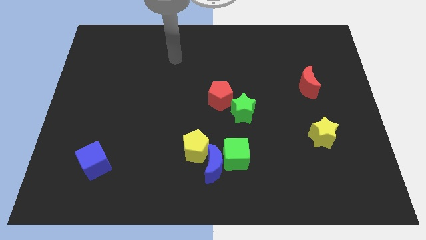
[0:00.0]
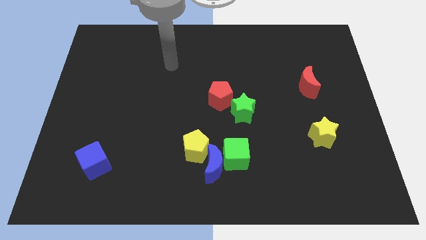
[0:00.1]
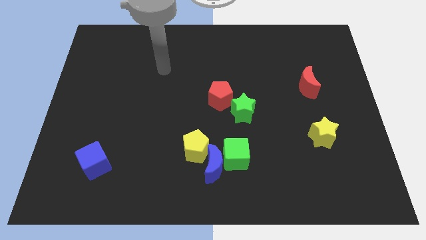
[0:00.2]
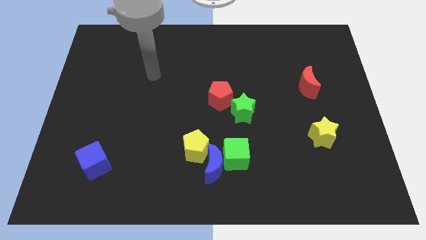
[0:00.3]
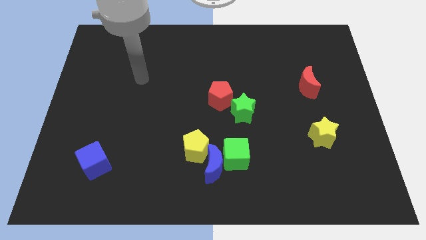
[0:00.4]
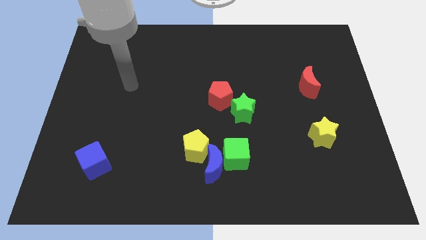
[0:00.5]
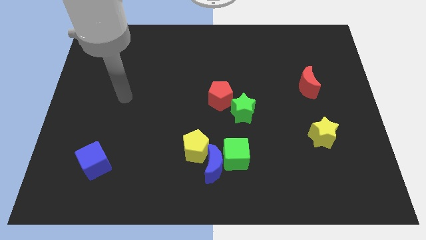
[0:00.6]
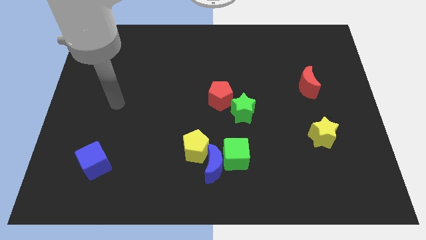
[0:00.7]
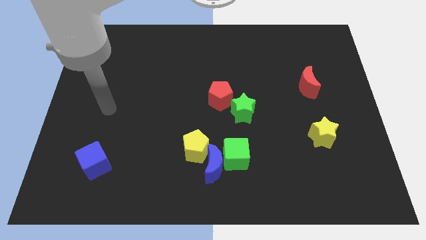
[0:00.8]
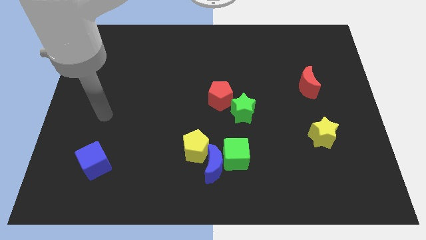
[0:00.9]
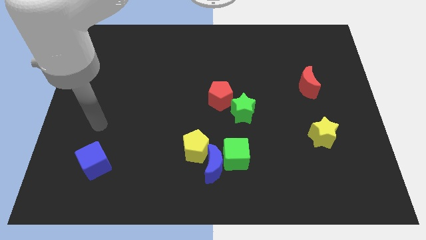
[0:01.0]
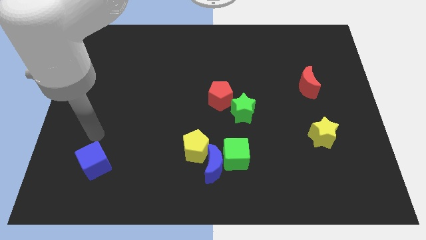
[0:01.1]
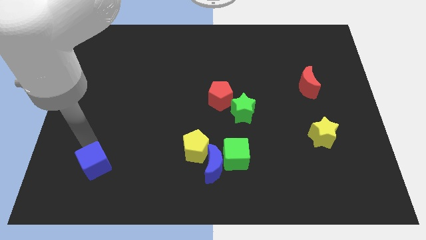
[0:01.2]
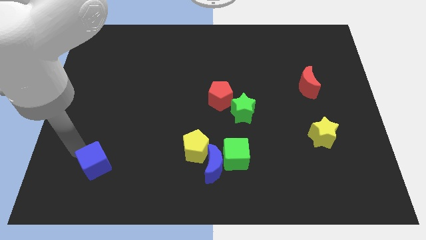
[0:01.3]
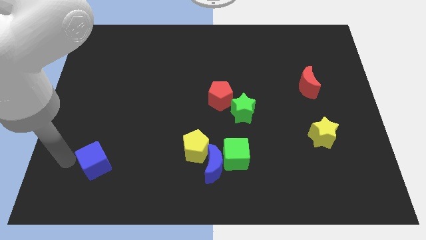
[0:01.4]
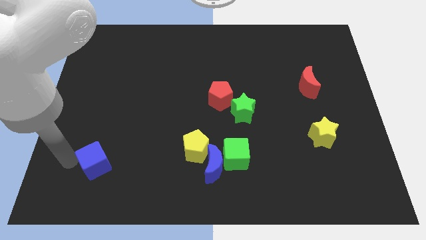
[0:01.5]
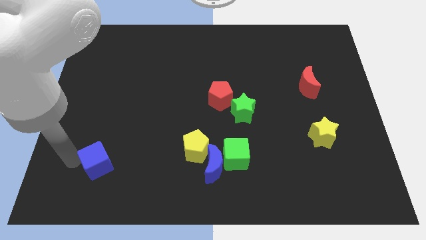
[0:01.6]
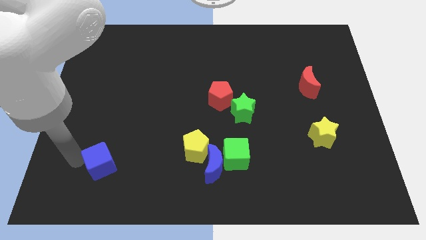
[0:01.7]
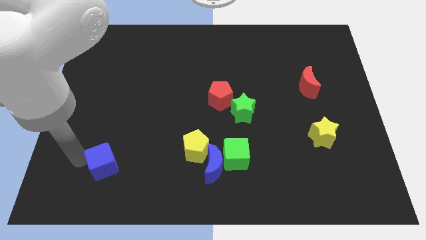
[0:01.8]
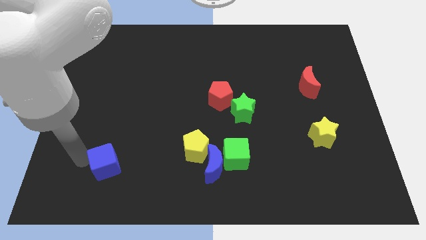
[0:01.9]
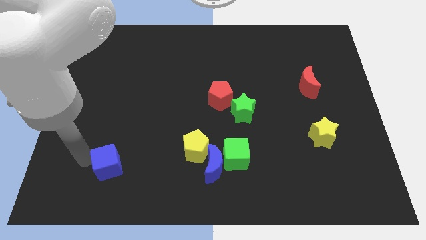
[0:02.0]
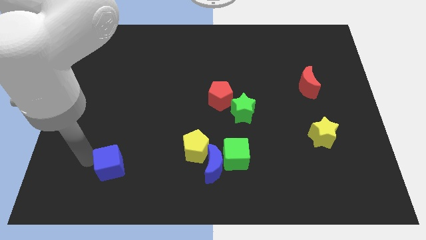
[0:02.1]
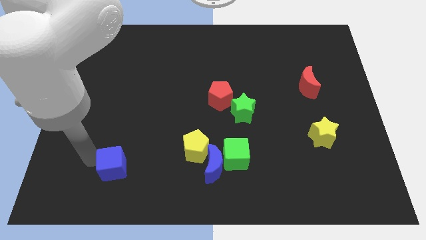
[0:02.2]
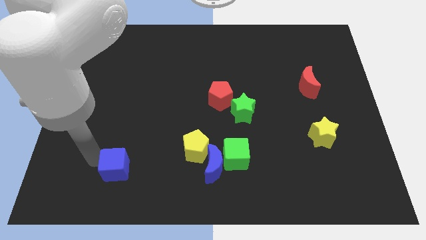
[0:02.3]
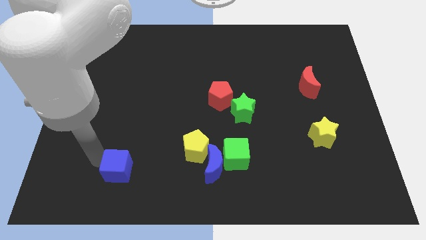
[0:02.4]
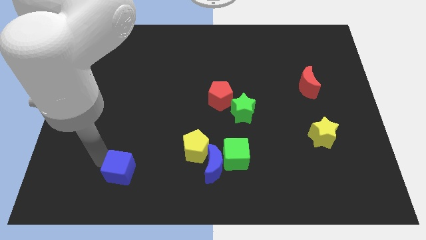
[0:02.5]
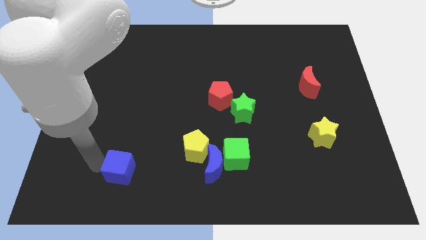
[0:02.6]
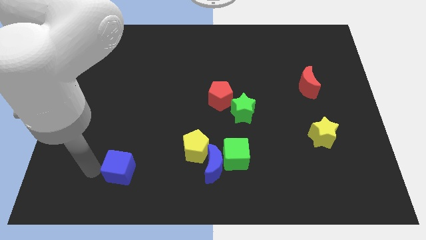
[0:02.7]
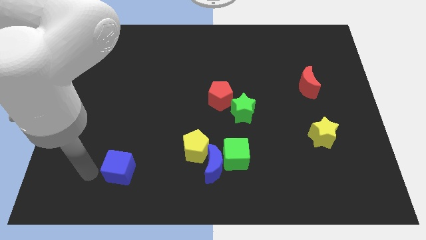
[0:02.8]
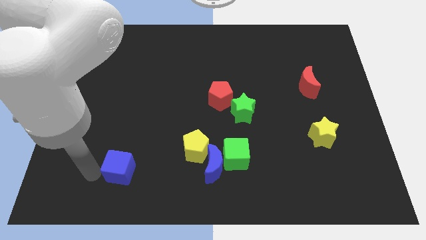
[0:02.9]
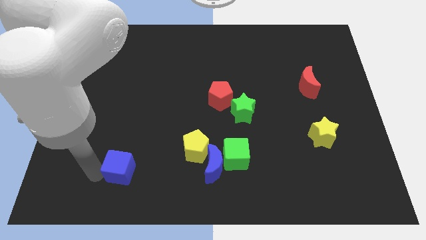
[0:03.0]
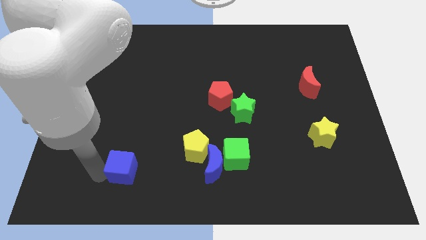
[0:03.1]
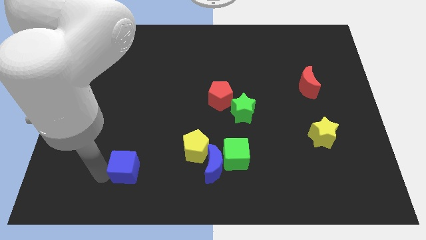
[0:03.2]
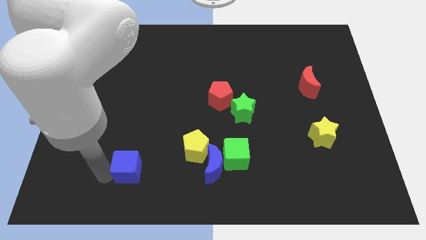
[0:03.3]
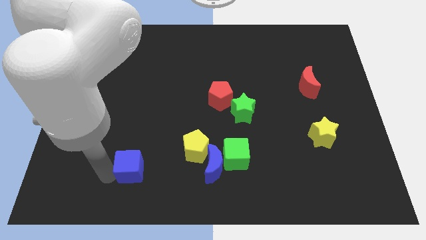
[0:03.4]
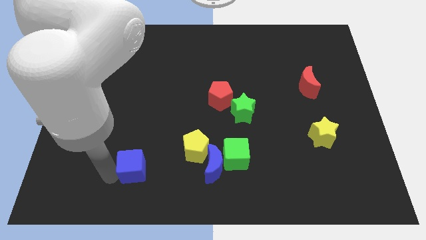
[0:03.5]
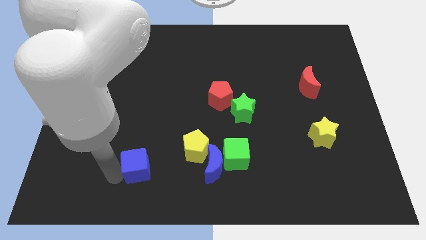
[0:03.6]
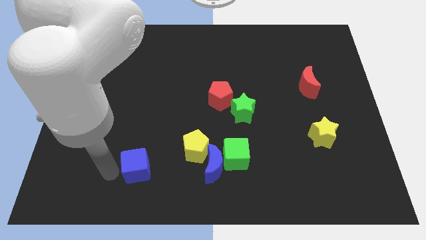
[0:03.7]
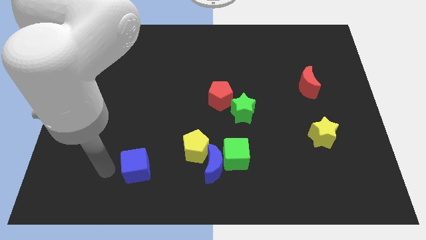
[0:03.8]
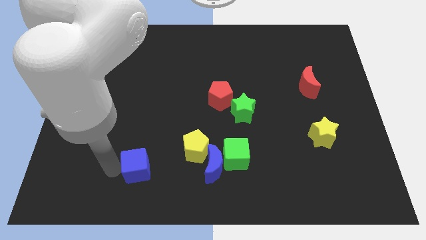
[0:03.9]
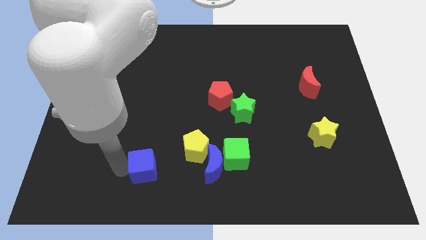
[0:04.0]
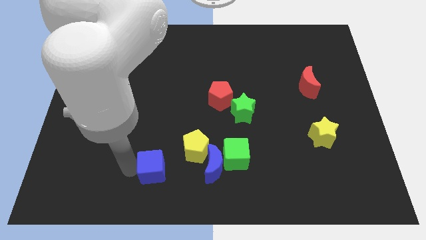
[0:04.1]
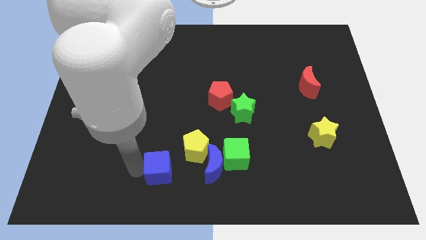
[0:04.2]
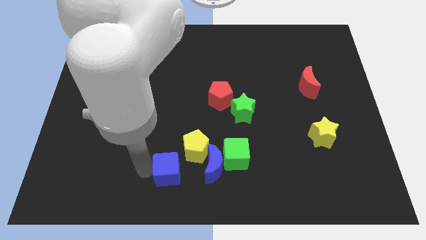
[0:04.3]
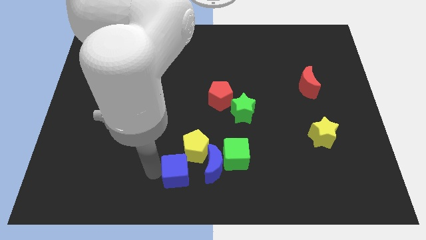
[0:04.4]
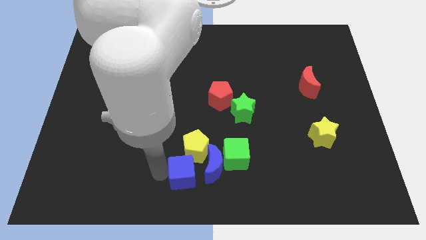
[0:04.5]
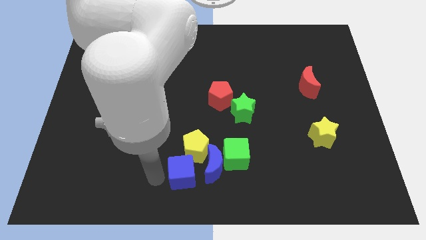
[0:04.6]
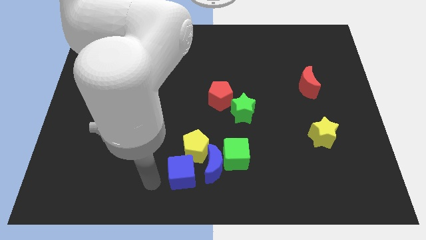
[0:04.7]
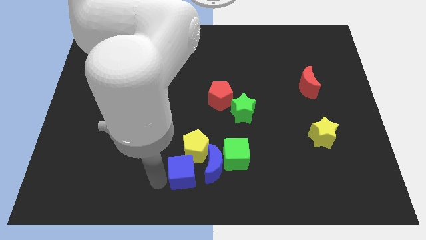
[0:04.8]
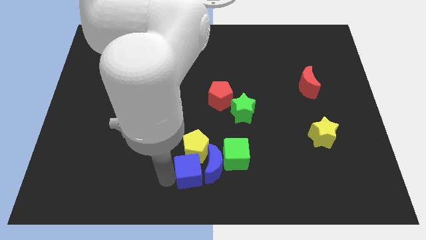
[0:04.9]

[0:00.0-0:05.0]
put the blue cube next to the blue moon

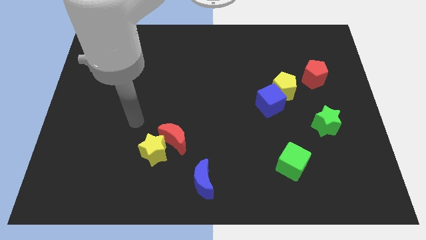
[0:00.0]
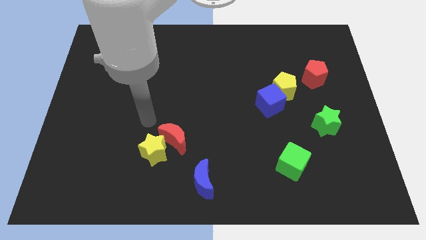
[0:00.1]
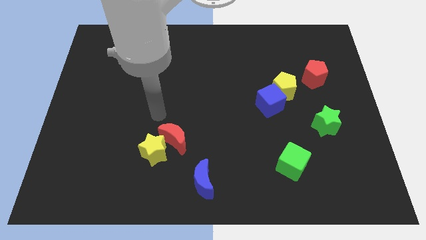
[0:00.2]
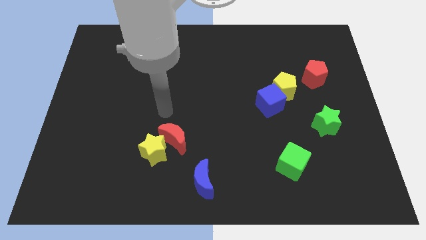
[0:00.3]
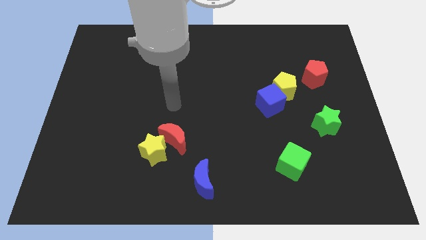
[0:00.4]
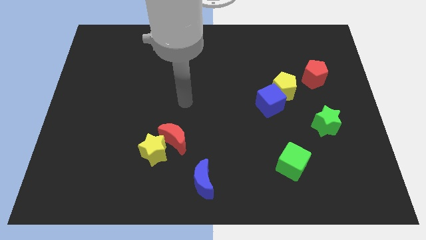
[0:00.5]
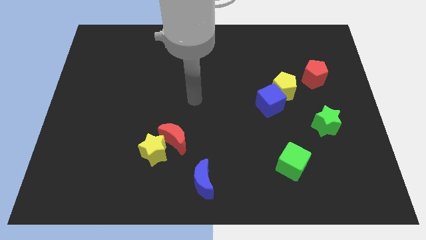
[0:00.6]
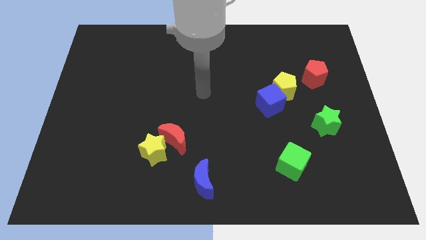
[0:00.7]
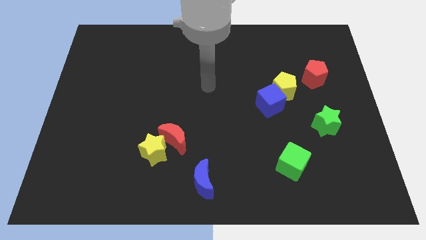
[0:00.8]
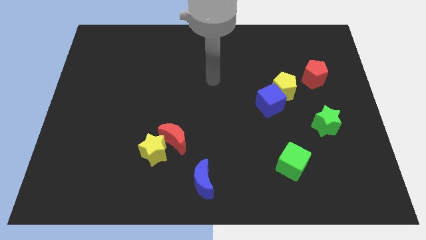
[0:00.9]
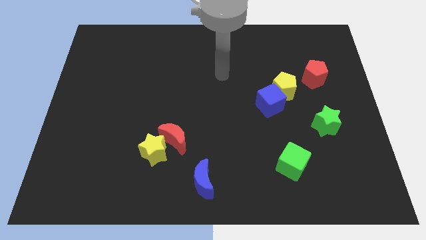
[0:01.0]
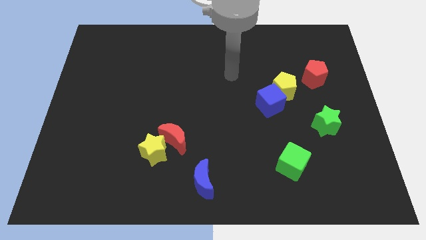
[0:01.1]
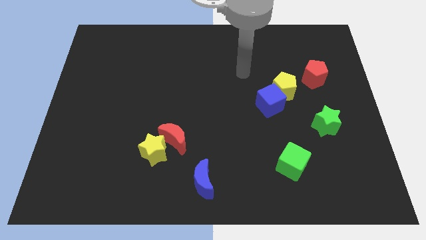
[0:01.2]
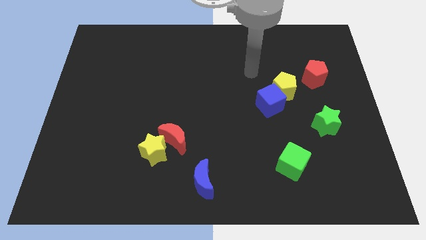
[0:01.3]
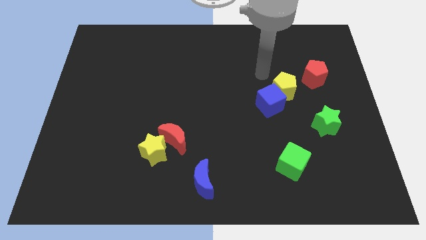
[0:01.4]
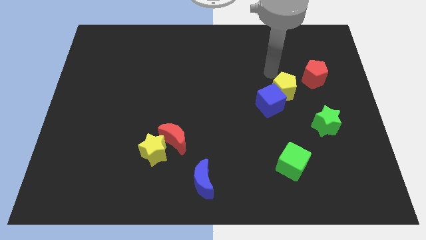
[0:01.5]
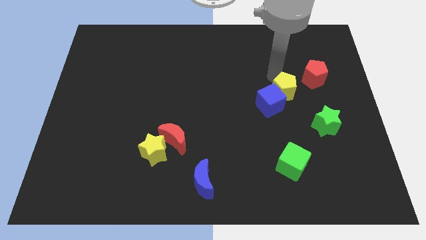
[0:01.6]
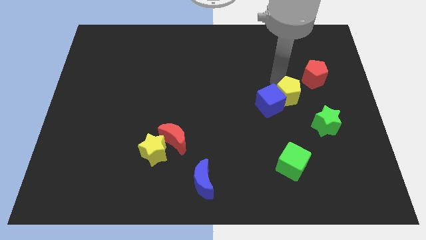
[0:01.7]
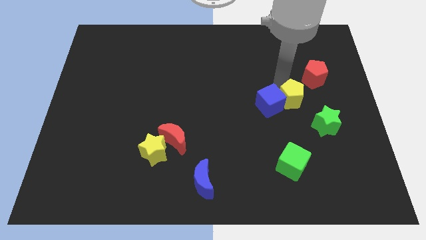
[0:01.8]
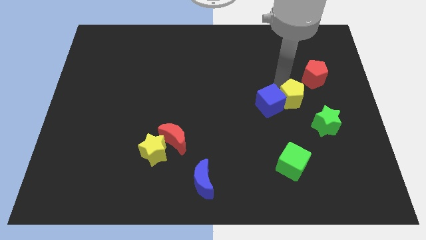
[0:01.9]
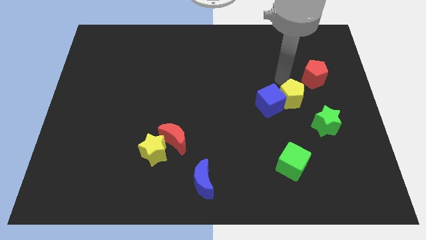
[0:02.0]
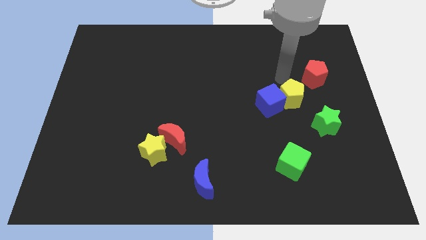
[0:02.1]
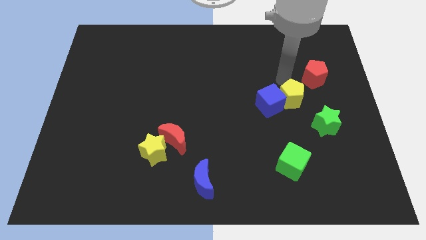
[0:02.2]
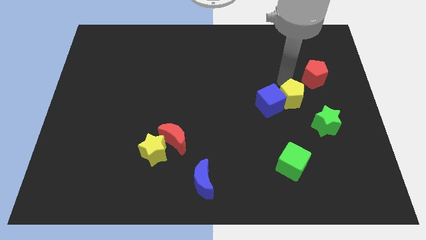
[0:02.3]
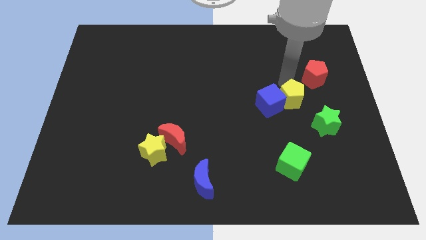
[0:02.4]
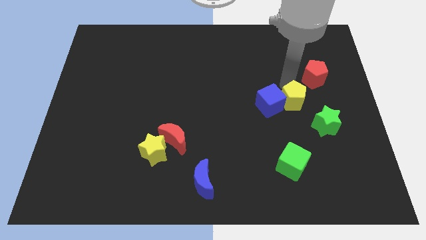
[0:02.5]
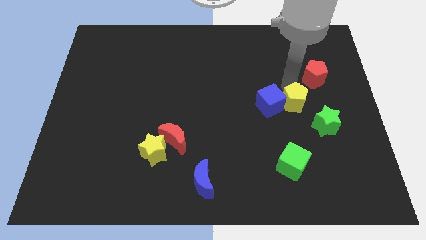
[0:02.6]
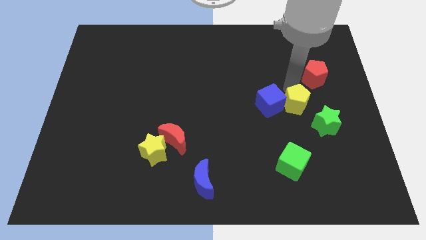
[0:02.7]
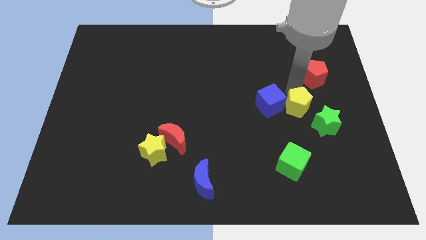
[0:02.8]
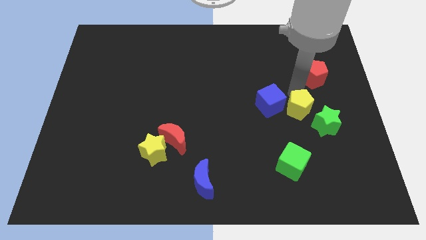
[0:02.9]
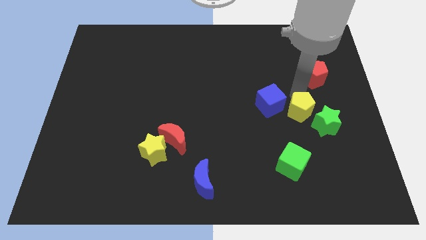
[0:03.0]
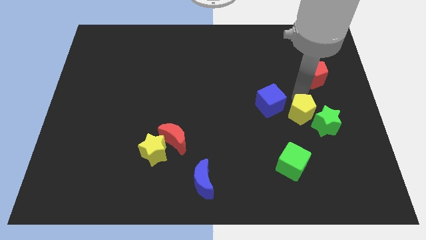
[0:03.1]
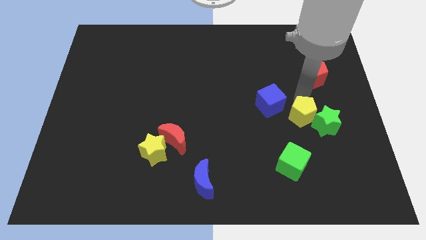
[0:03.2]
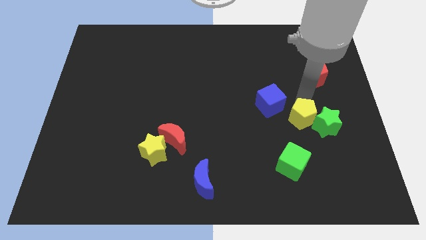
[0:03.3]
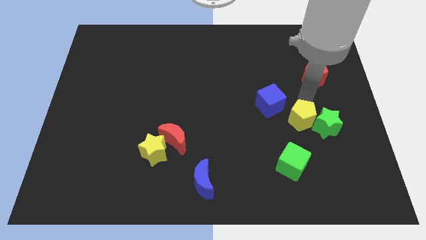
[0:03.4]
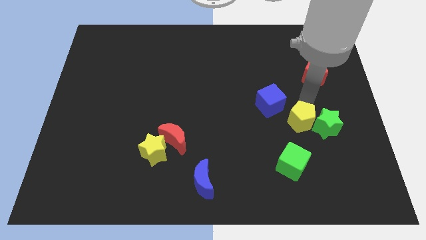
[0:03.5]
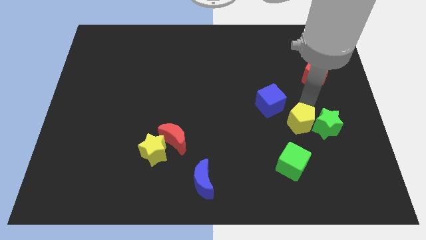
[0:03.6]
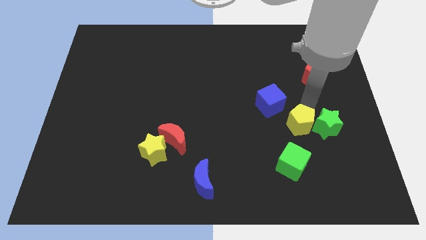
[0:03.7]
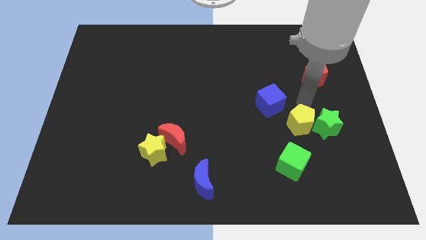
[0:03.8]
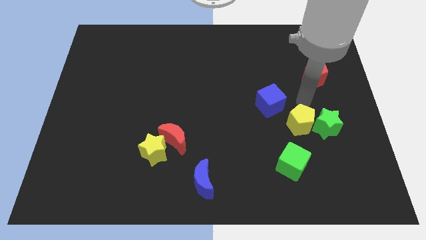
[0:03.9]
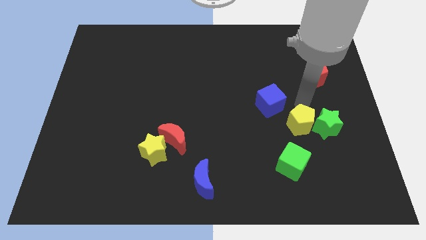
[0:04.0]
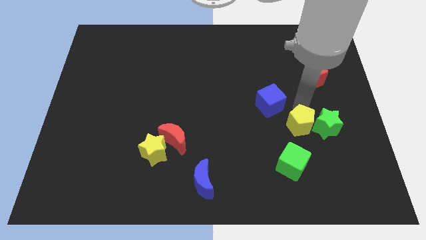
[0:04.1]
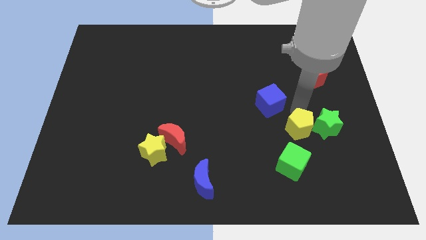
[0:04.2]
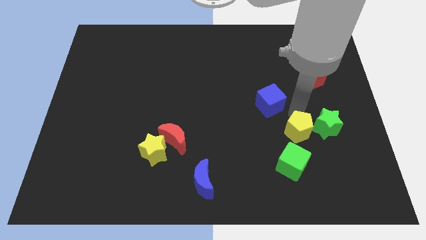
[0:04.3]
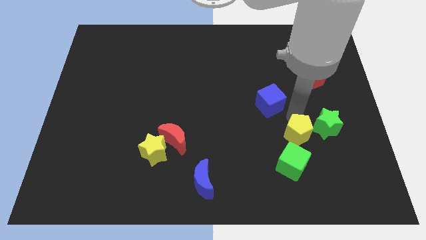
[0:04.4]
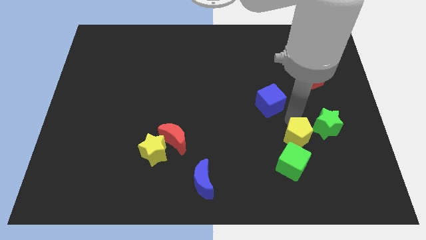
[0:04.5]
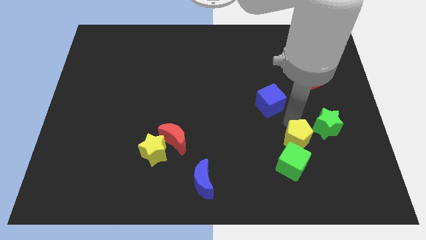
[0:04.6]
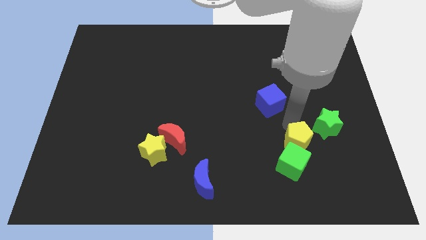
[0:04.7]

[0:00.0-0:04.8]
slide the yellow pentagon close to the green cube
